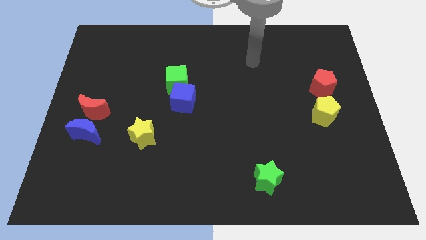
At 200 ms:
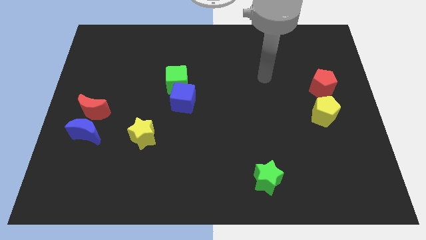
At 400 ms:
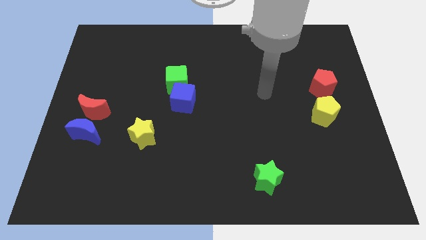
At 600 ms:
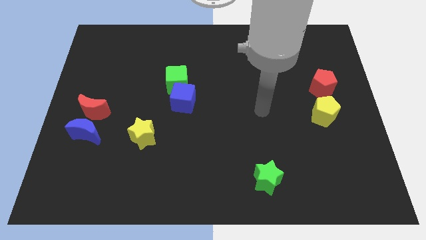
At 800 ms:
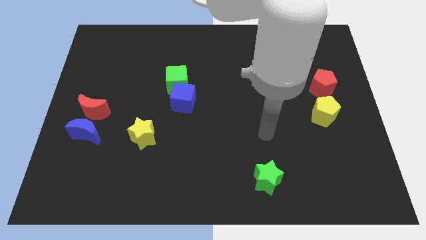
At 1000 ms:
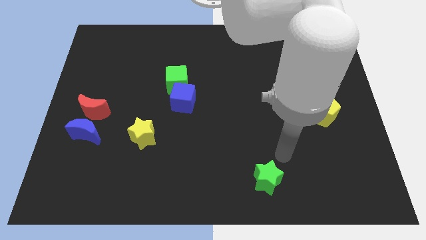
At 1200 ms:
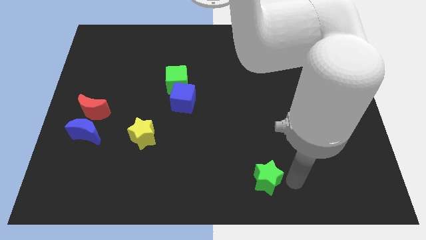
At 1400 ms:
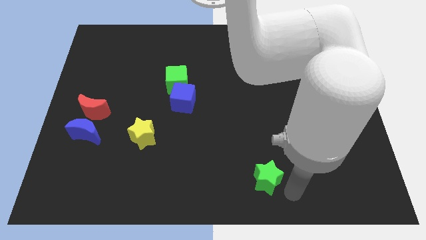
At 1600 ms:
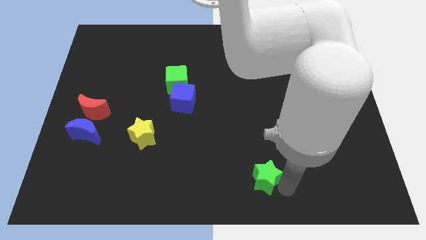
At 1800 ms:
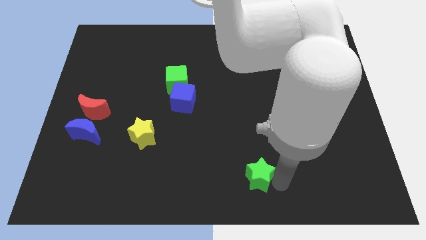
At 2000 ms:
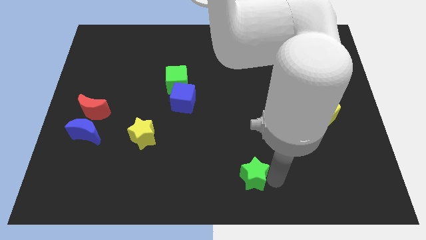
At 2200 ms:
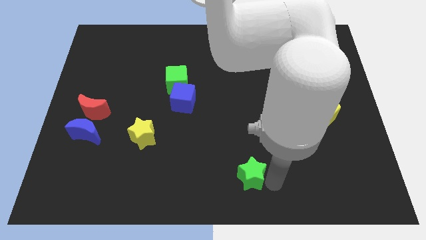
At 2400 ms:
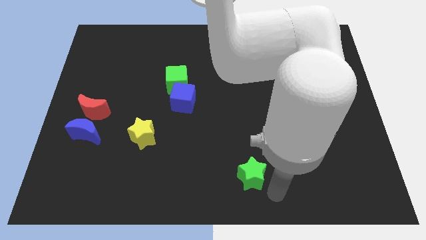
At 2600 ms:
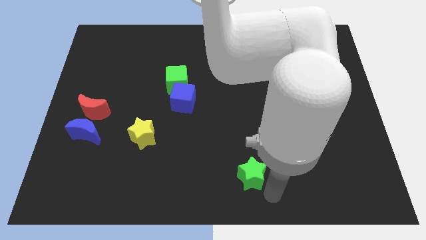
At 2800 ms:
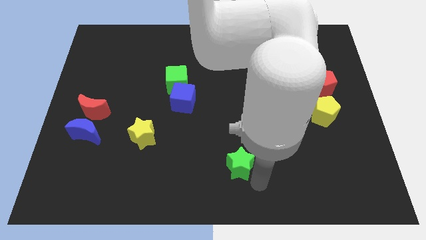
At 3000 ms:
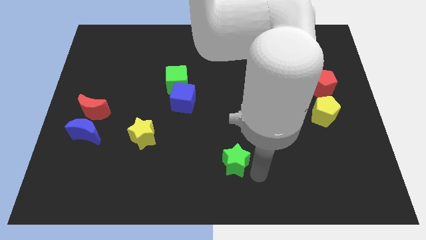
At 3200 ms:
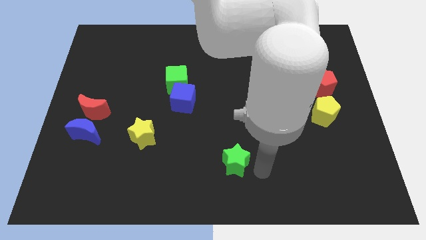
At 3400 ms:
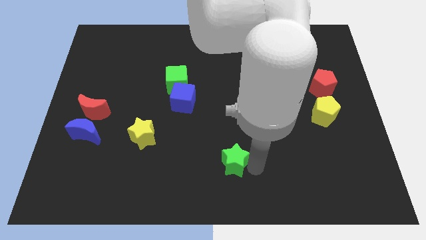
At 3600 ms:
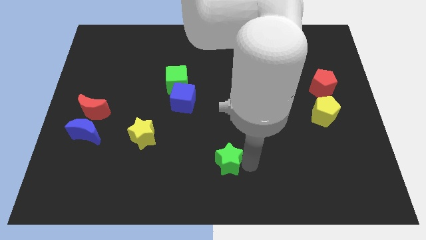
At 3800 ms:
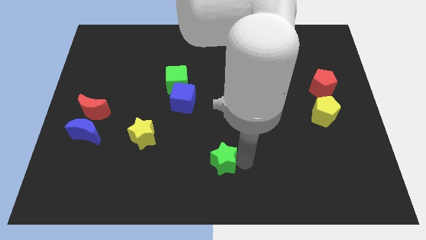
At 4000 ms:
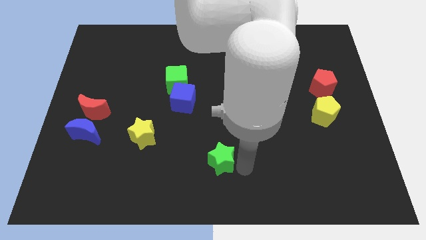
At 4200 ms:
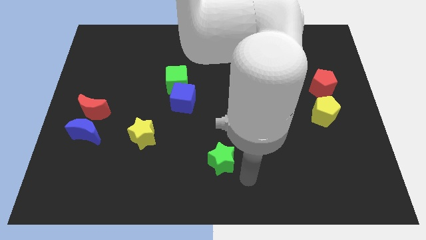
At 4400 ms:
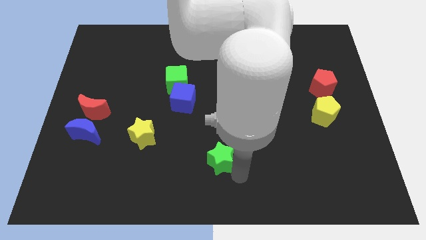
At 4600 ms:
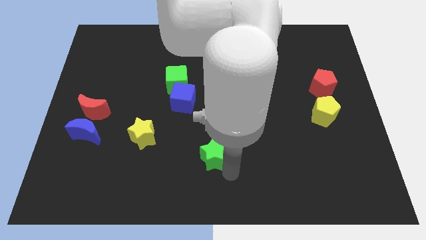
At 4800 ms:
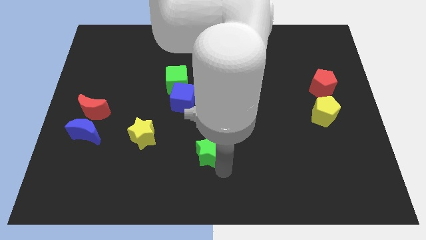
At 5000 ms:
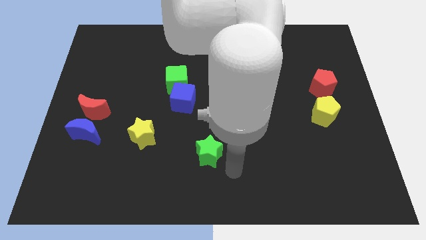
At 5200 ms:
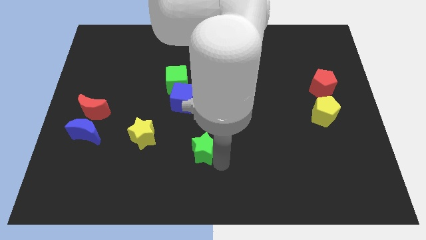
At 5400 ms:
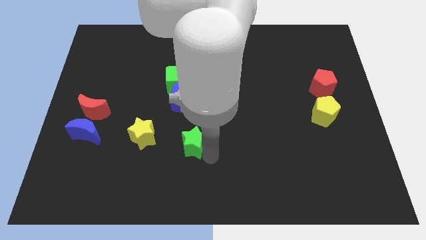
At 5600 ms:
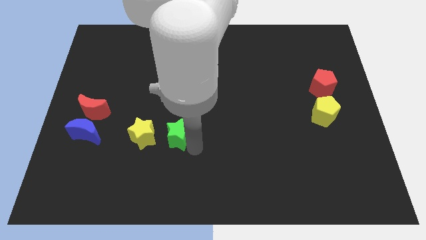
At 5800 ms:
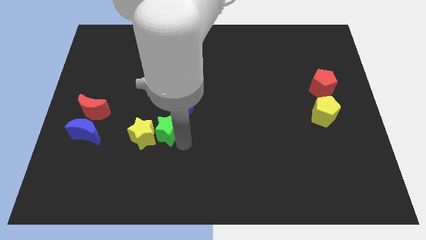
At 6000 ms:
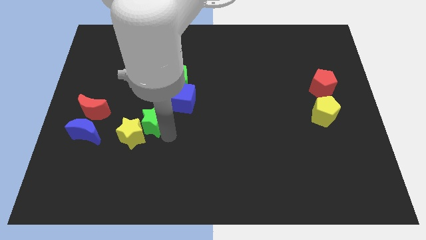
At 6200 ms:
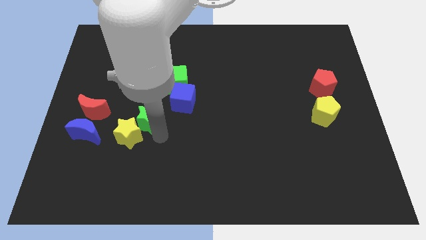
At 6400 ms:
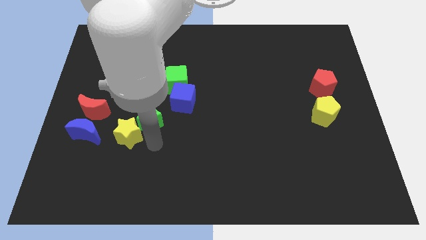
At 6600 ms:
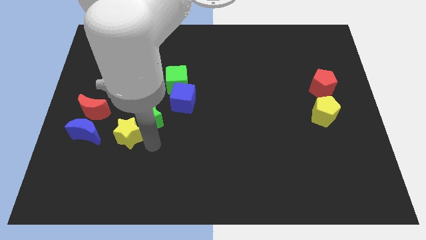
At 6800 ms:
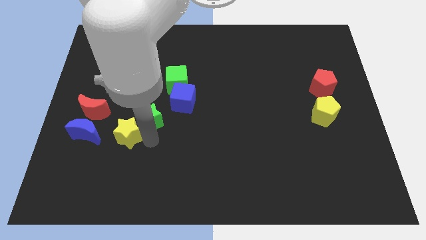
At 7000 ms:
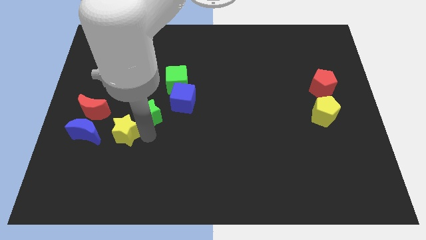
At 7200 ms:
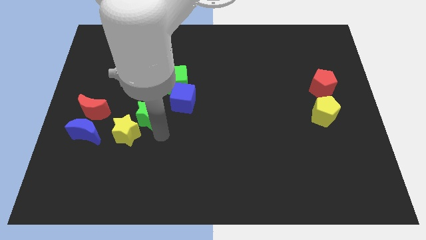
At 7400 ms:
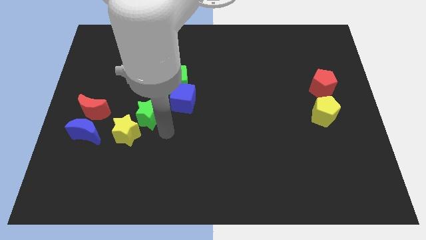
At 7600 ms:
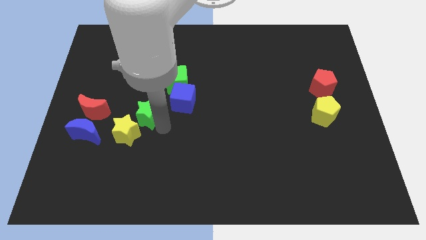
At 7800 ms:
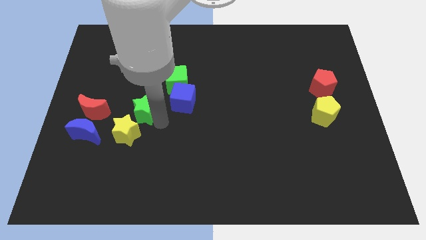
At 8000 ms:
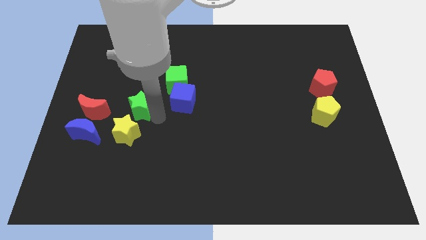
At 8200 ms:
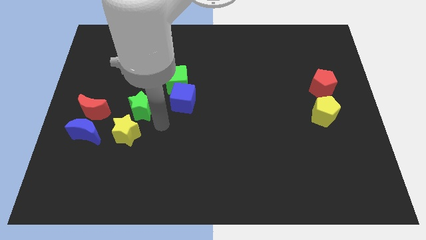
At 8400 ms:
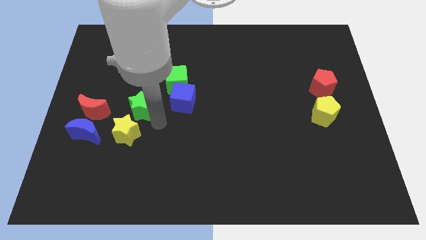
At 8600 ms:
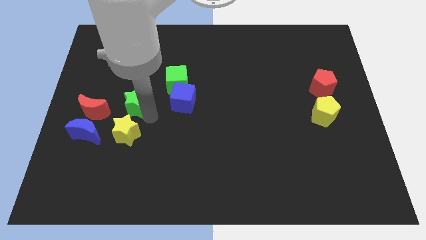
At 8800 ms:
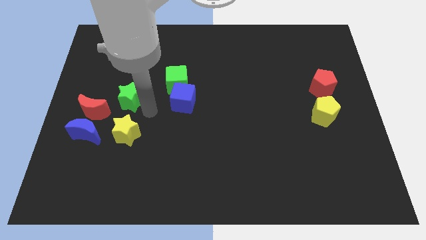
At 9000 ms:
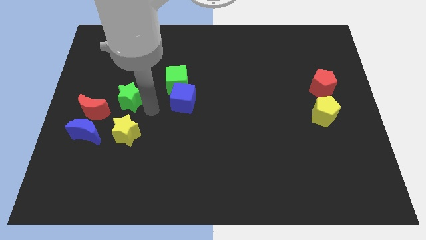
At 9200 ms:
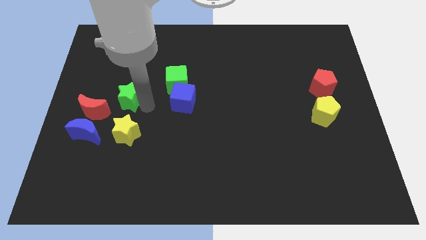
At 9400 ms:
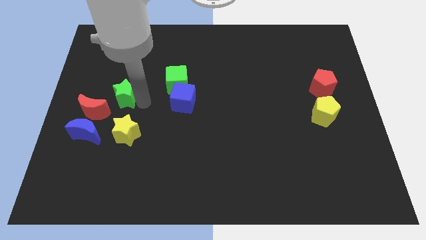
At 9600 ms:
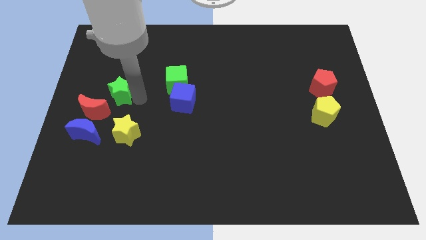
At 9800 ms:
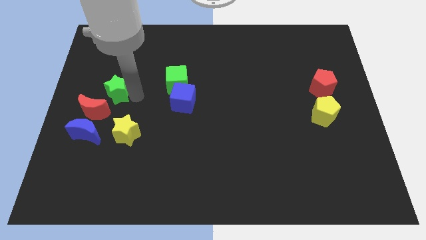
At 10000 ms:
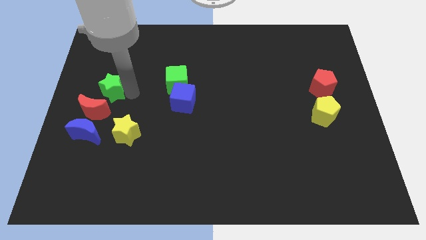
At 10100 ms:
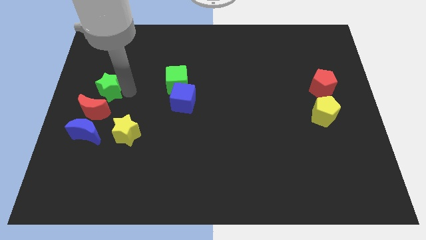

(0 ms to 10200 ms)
slide the green star to the center left

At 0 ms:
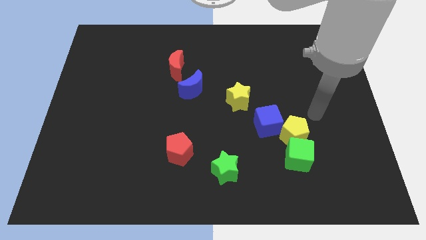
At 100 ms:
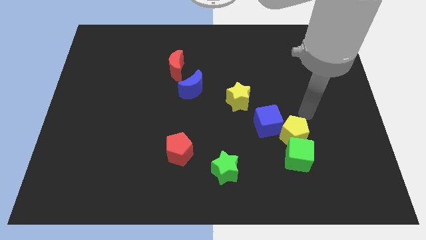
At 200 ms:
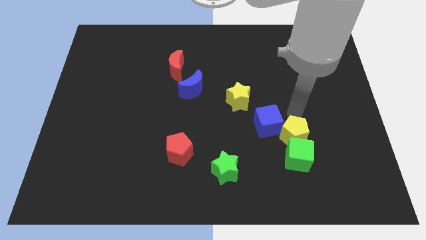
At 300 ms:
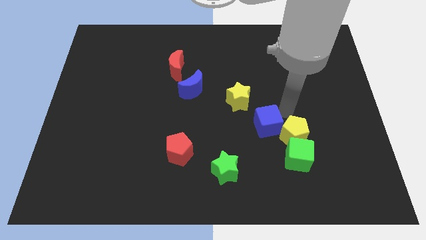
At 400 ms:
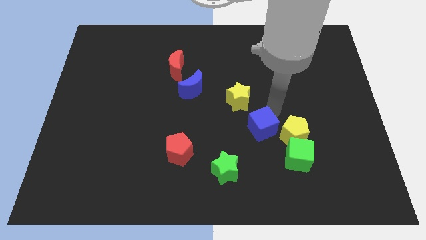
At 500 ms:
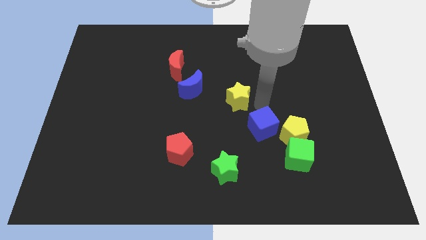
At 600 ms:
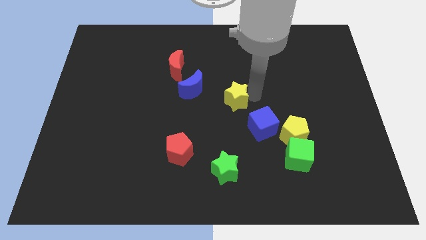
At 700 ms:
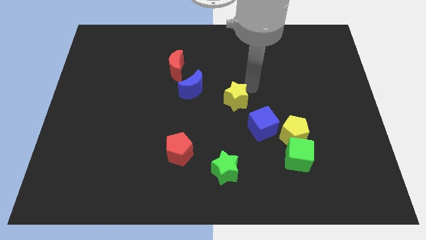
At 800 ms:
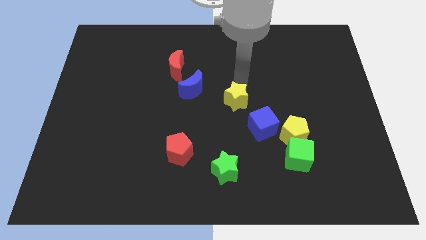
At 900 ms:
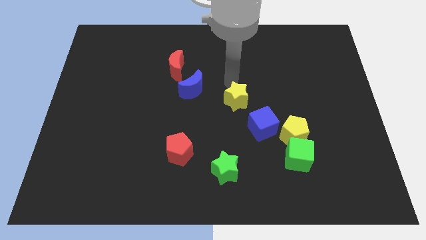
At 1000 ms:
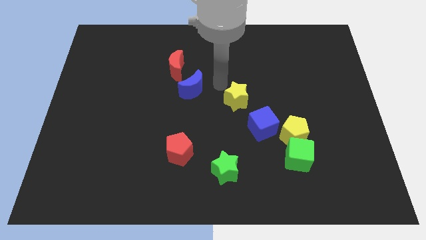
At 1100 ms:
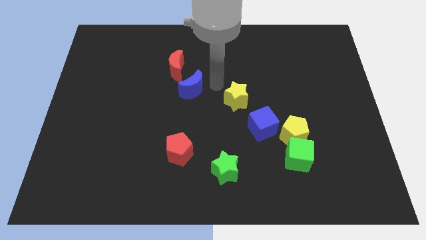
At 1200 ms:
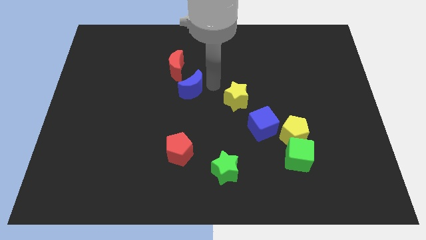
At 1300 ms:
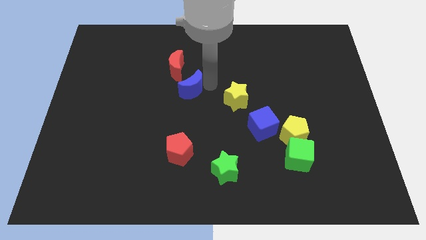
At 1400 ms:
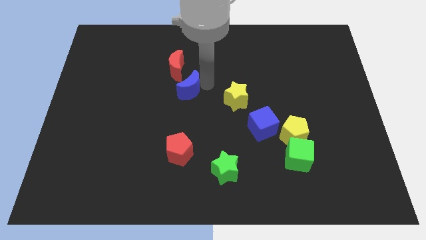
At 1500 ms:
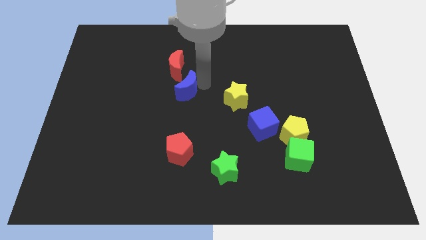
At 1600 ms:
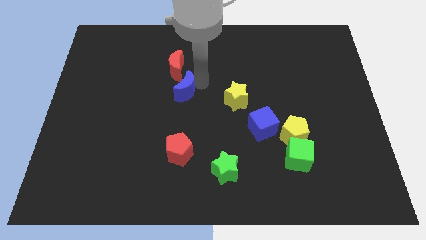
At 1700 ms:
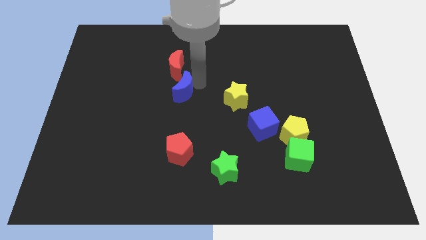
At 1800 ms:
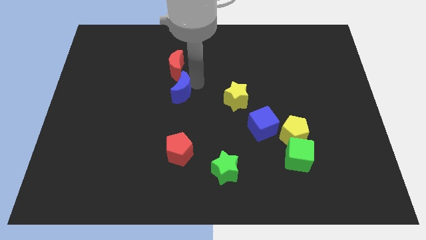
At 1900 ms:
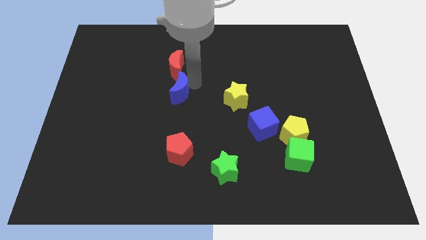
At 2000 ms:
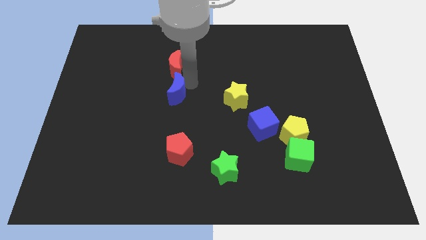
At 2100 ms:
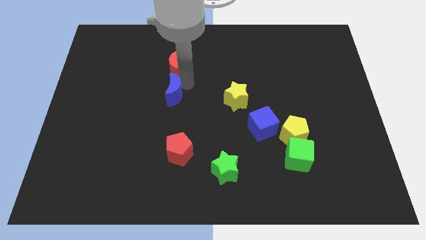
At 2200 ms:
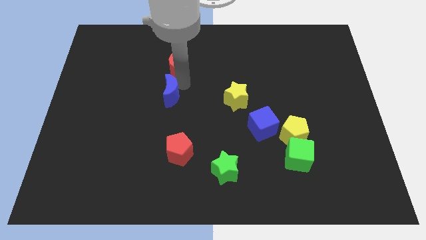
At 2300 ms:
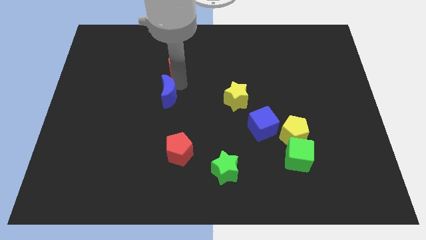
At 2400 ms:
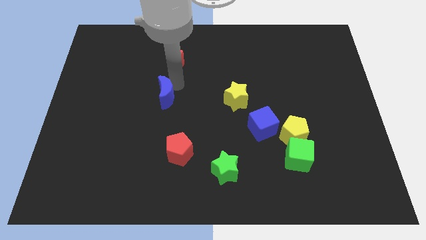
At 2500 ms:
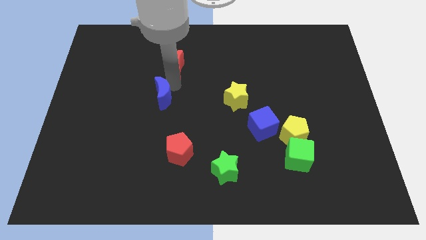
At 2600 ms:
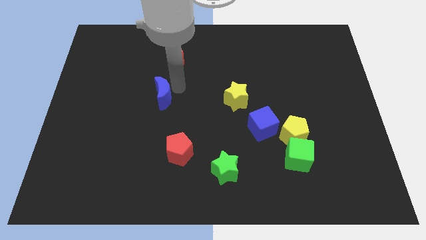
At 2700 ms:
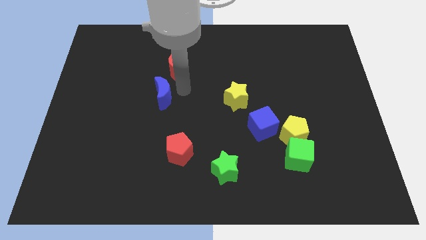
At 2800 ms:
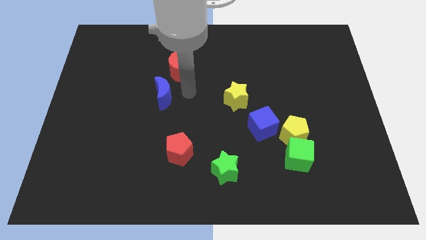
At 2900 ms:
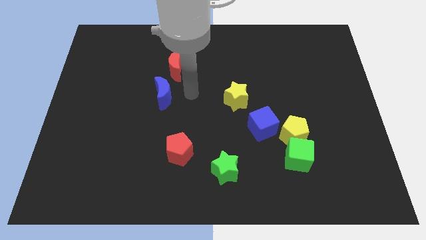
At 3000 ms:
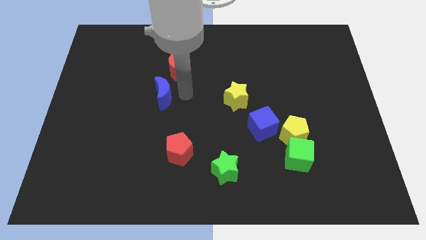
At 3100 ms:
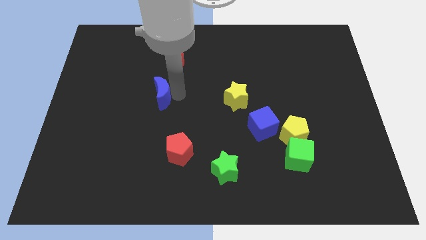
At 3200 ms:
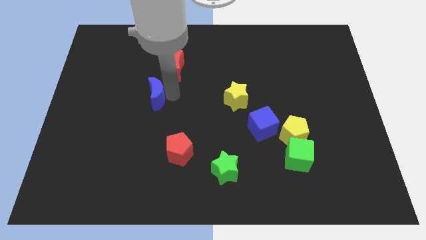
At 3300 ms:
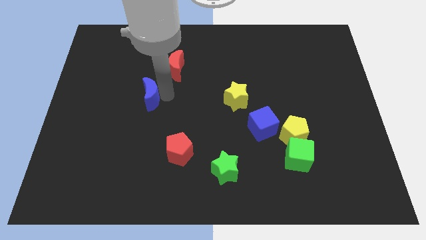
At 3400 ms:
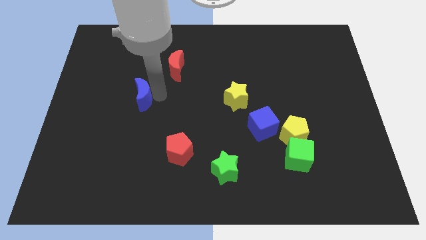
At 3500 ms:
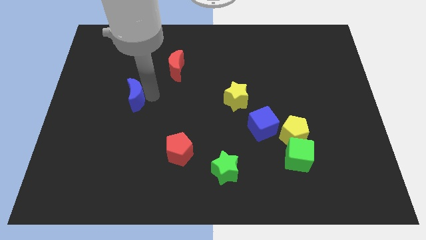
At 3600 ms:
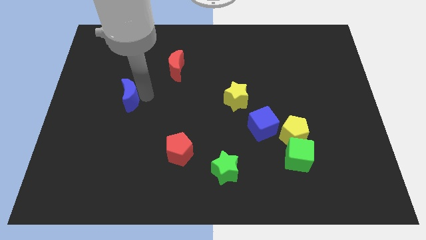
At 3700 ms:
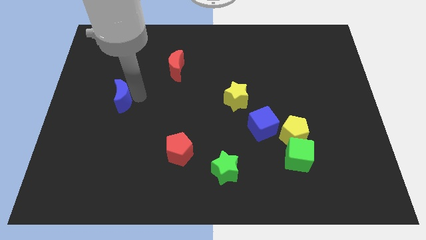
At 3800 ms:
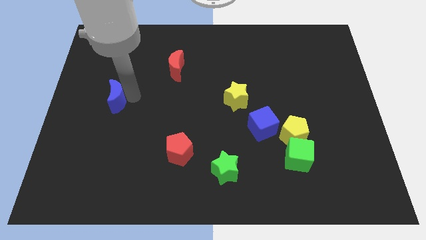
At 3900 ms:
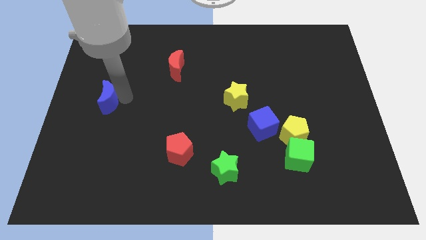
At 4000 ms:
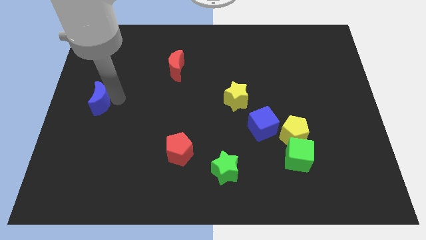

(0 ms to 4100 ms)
slide the blue moon to the left side of the board
